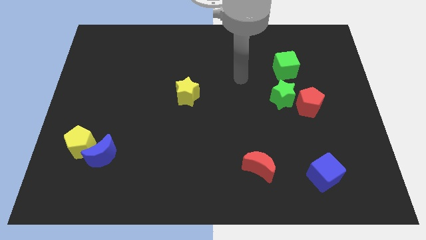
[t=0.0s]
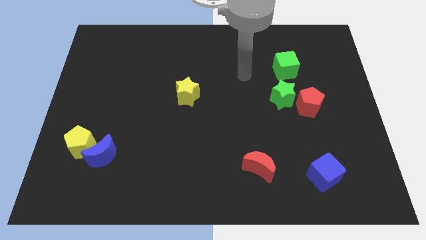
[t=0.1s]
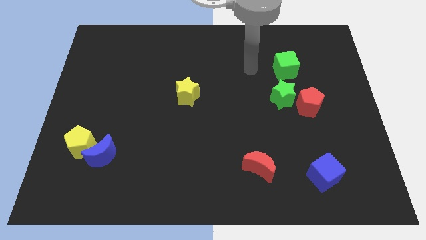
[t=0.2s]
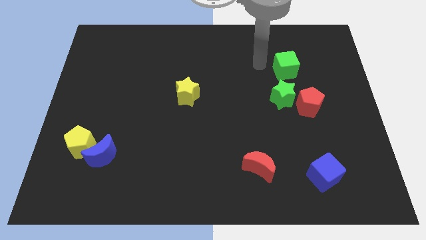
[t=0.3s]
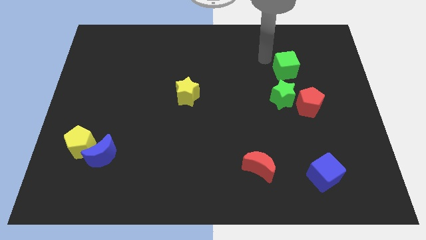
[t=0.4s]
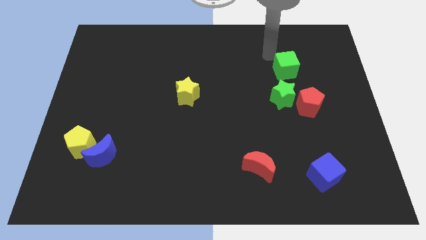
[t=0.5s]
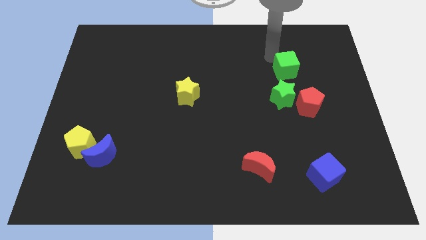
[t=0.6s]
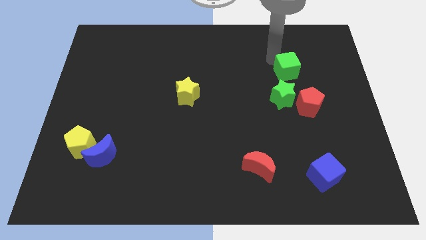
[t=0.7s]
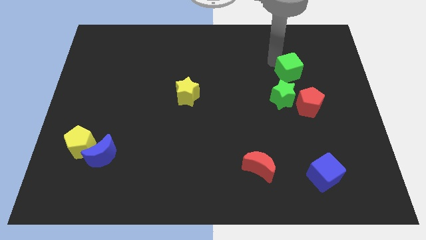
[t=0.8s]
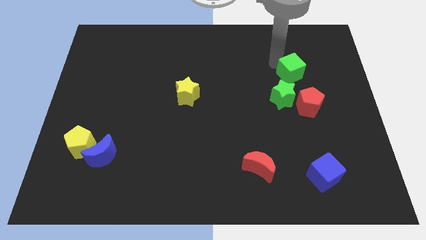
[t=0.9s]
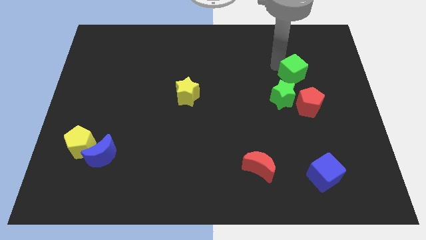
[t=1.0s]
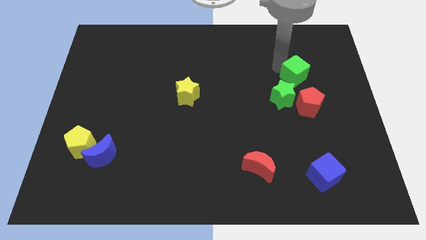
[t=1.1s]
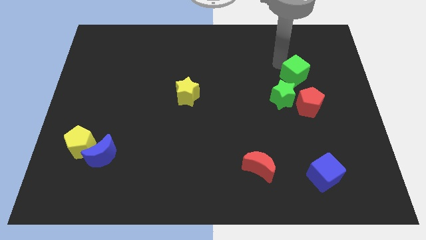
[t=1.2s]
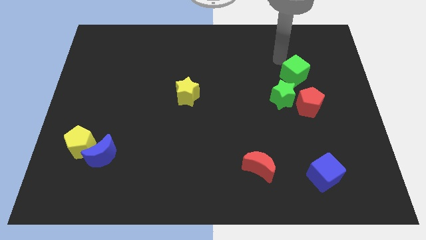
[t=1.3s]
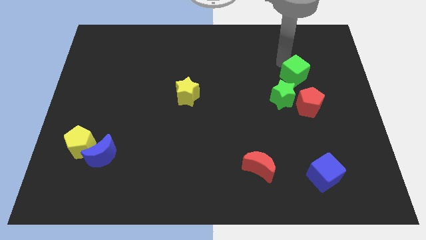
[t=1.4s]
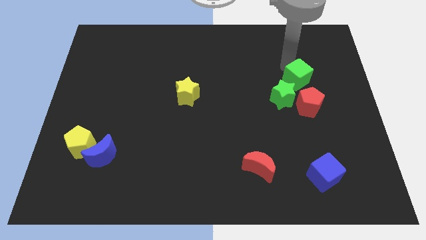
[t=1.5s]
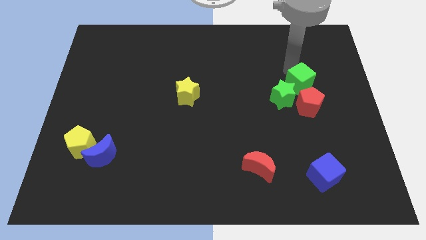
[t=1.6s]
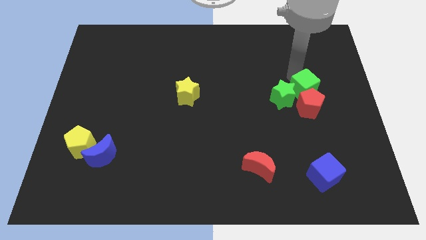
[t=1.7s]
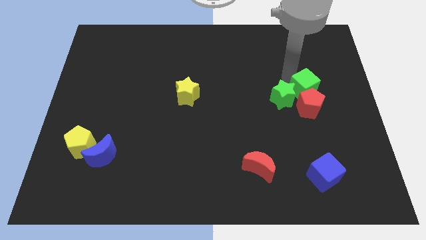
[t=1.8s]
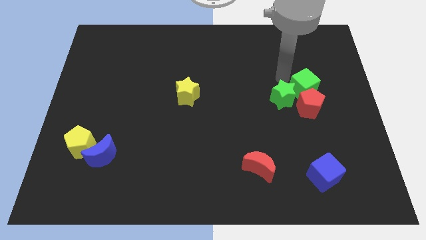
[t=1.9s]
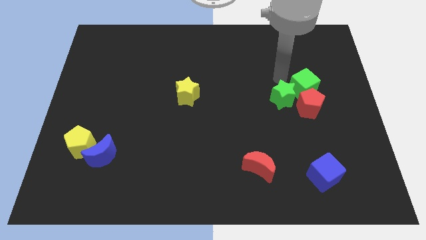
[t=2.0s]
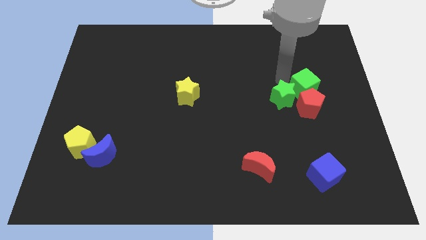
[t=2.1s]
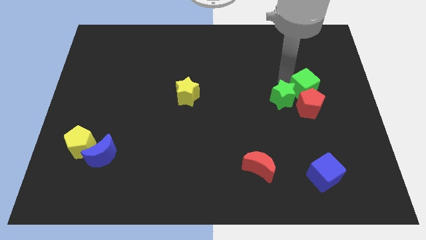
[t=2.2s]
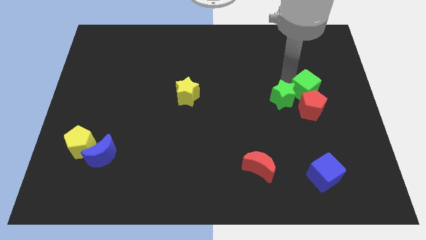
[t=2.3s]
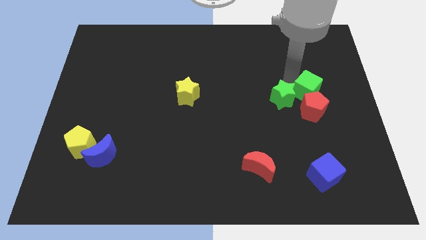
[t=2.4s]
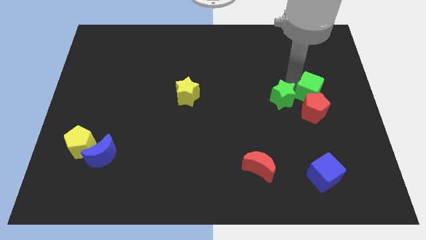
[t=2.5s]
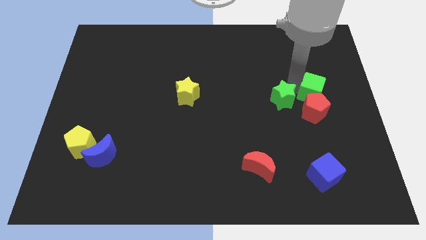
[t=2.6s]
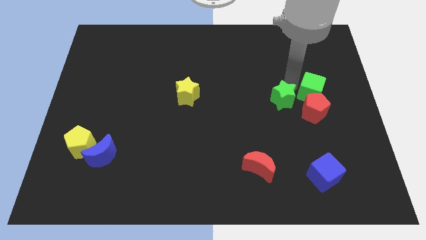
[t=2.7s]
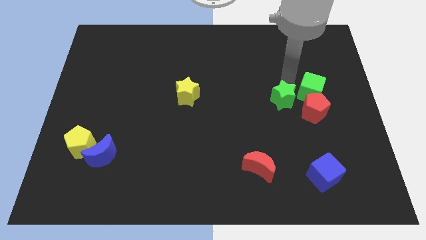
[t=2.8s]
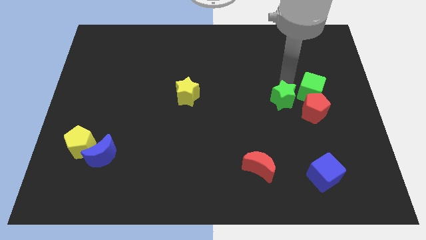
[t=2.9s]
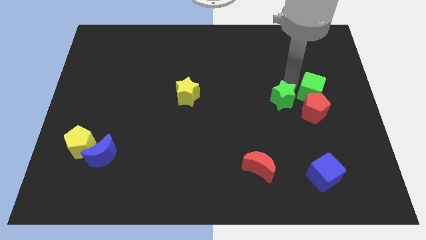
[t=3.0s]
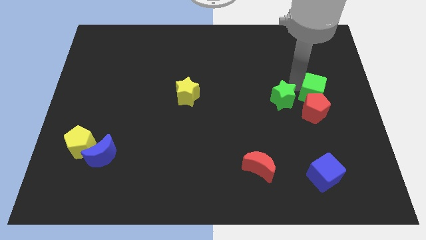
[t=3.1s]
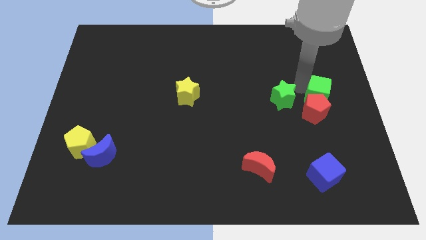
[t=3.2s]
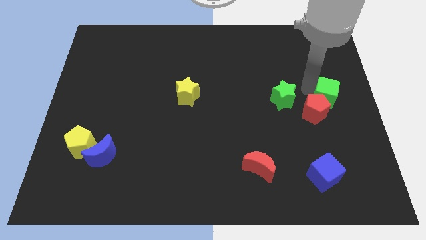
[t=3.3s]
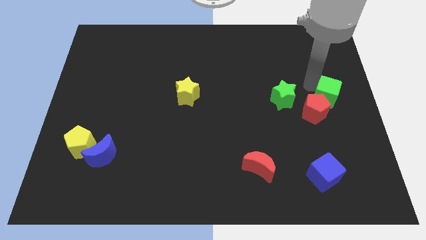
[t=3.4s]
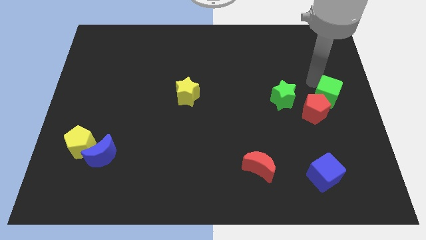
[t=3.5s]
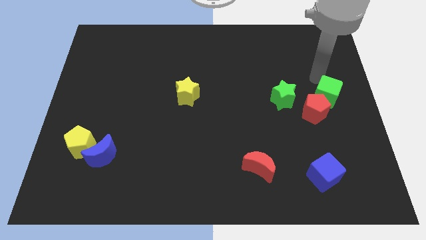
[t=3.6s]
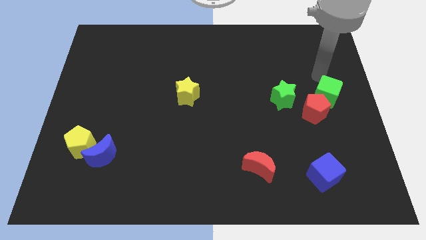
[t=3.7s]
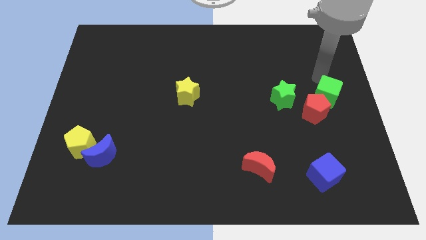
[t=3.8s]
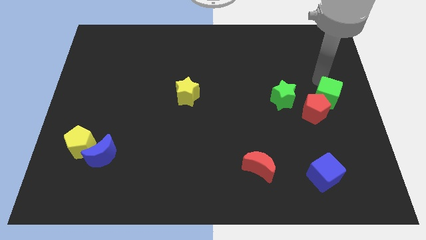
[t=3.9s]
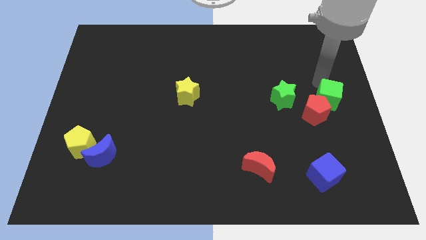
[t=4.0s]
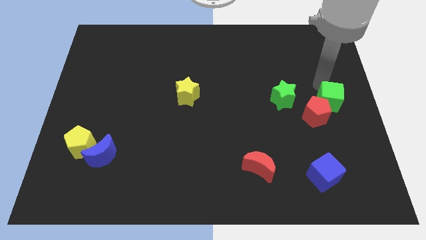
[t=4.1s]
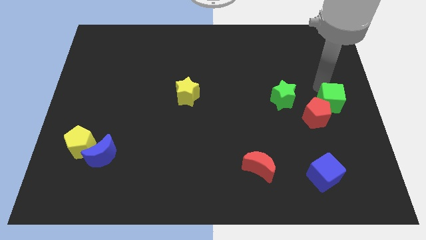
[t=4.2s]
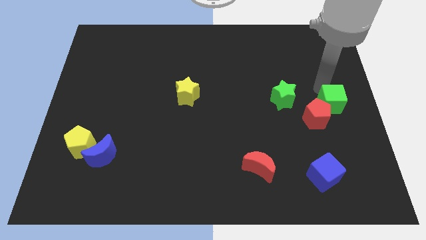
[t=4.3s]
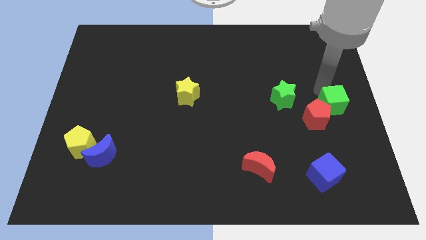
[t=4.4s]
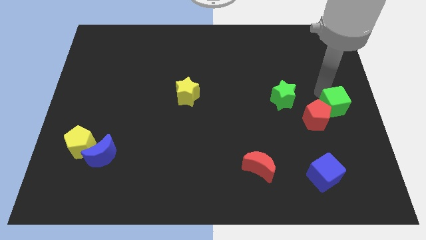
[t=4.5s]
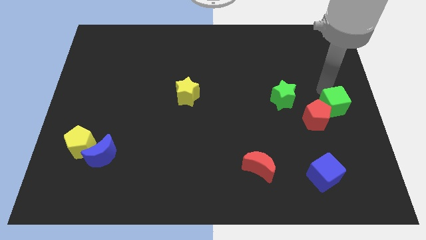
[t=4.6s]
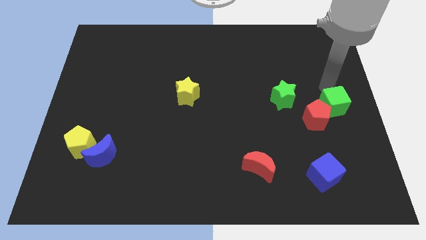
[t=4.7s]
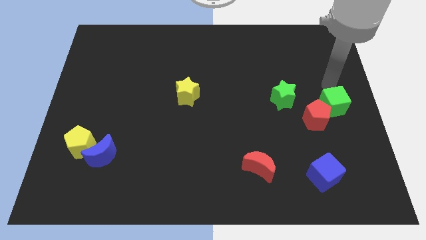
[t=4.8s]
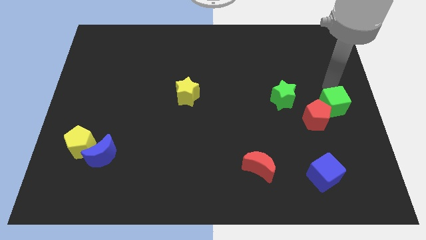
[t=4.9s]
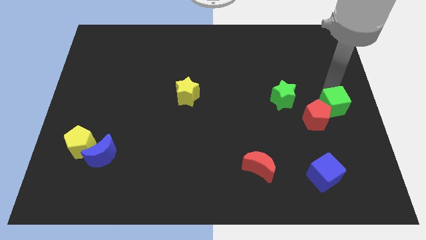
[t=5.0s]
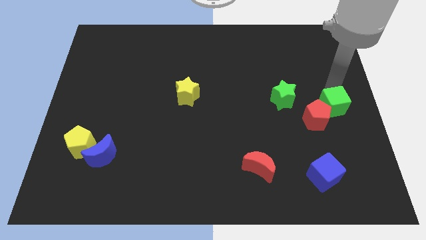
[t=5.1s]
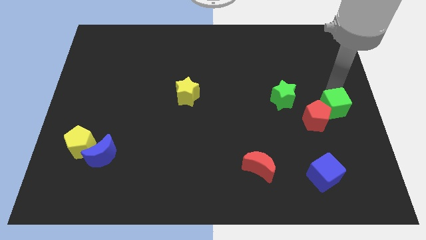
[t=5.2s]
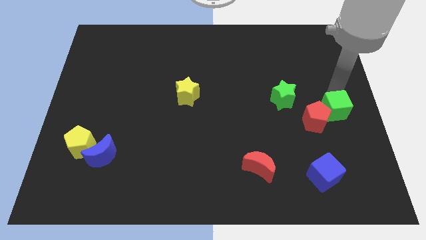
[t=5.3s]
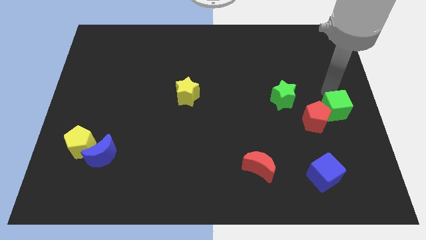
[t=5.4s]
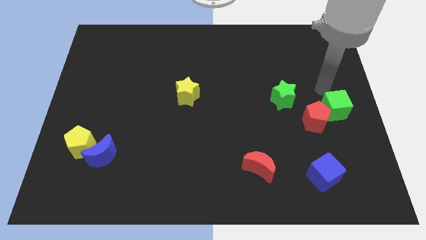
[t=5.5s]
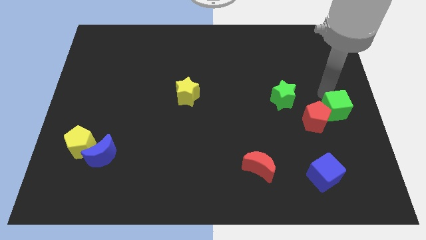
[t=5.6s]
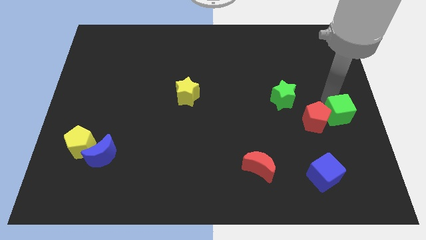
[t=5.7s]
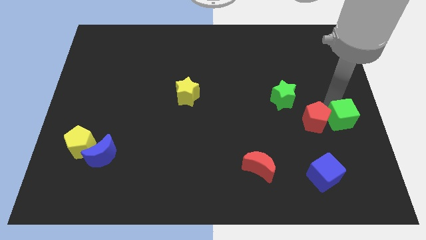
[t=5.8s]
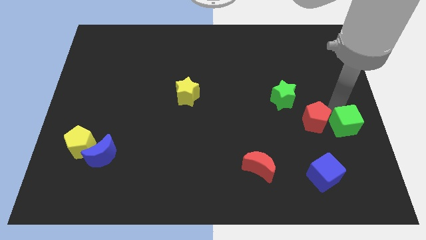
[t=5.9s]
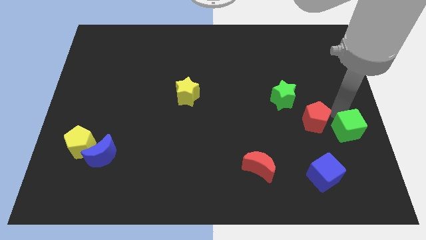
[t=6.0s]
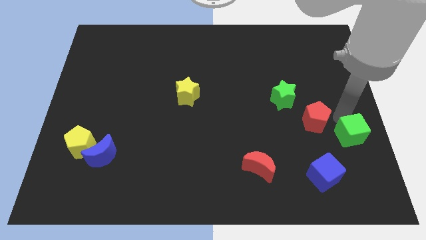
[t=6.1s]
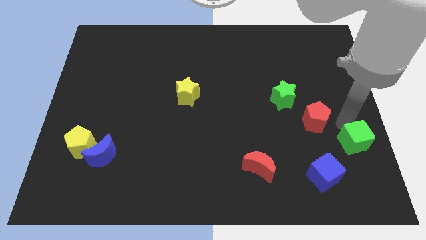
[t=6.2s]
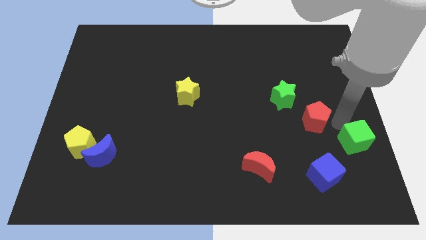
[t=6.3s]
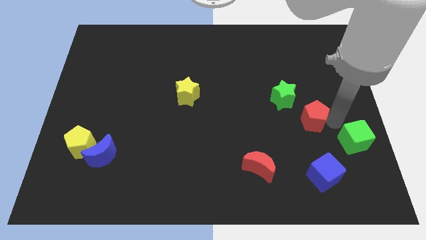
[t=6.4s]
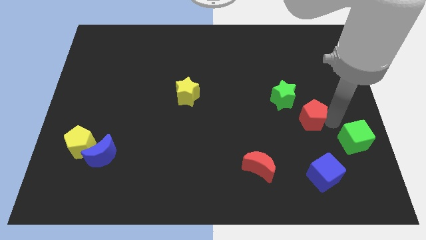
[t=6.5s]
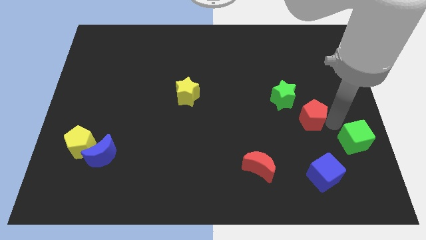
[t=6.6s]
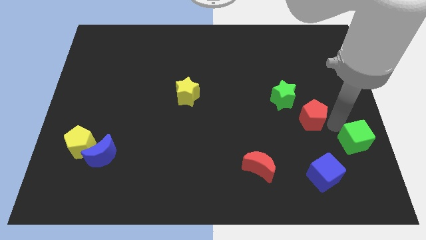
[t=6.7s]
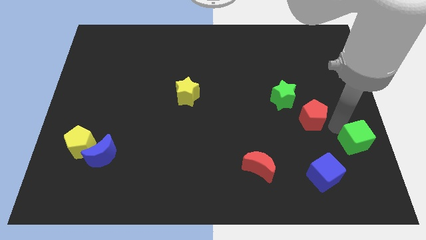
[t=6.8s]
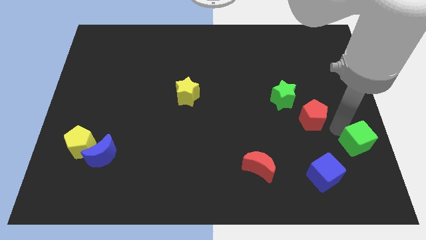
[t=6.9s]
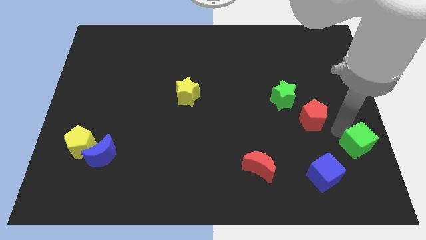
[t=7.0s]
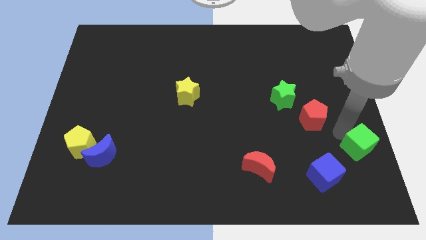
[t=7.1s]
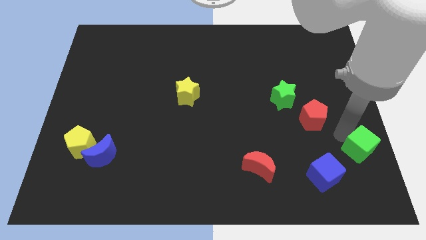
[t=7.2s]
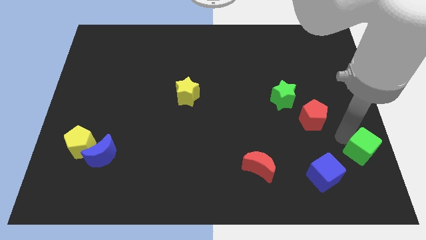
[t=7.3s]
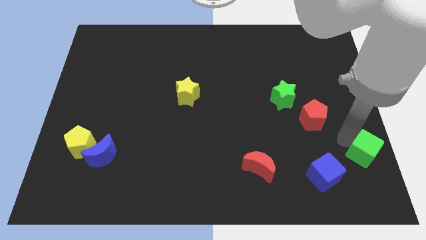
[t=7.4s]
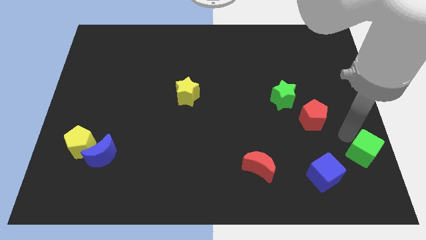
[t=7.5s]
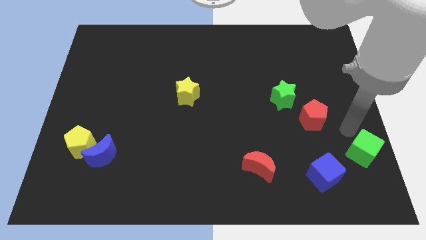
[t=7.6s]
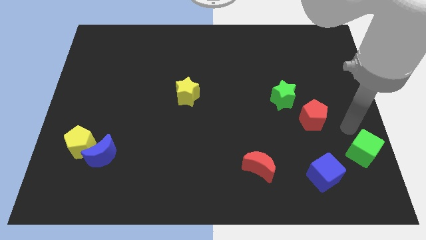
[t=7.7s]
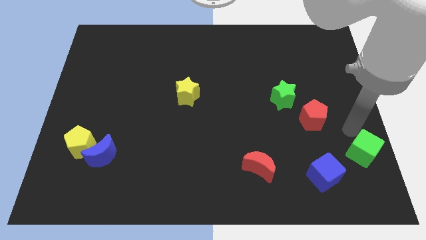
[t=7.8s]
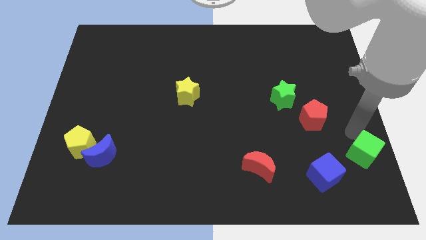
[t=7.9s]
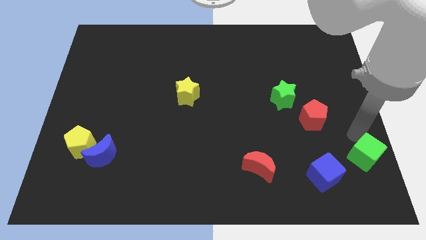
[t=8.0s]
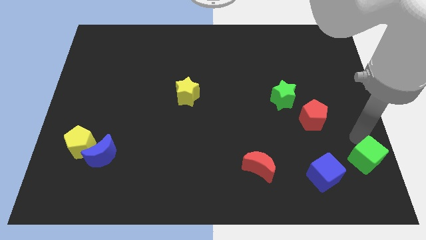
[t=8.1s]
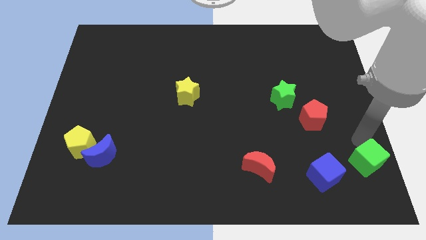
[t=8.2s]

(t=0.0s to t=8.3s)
push the green cube to the bottom right of the board
